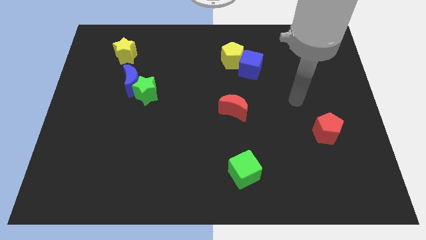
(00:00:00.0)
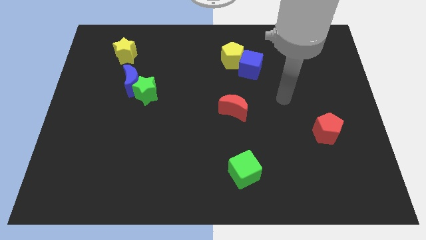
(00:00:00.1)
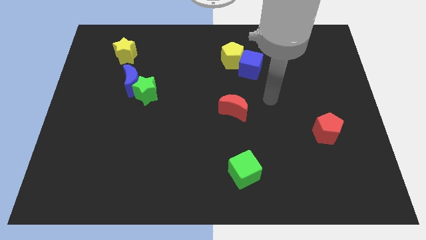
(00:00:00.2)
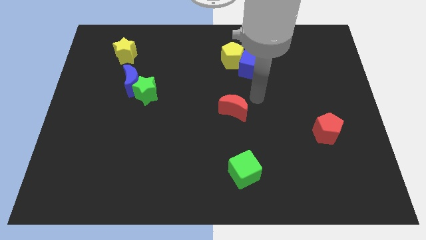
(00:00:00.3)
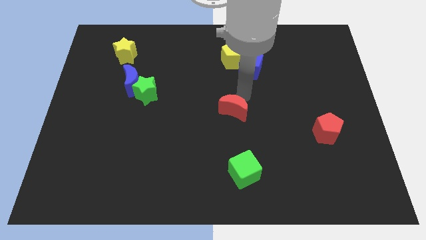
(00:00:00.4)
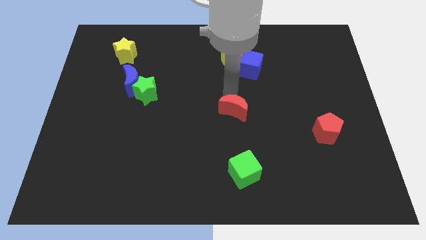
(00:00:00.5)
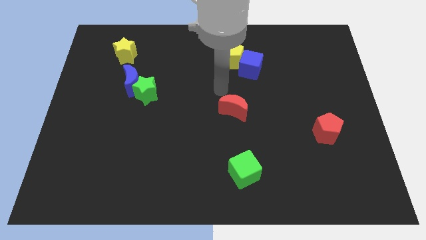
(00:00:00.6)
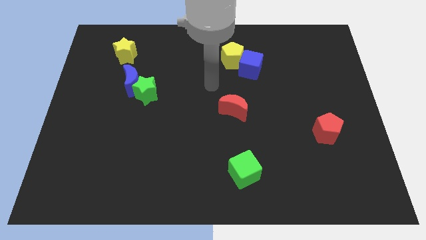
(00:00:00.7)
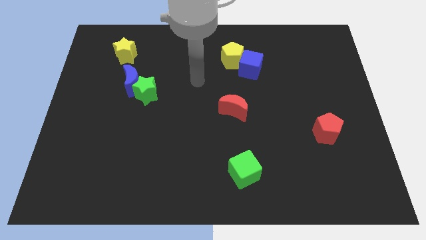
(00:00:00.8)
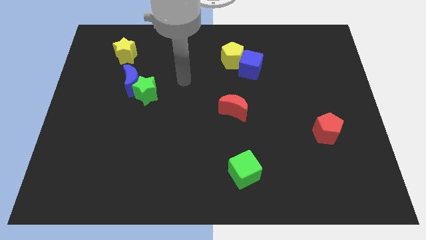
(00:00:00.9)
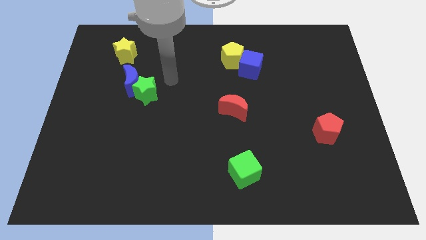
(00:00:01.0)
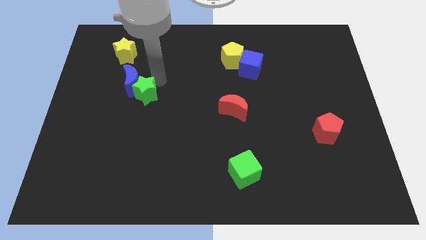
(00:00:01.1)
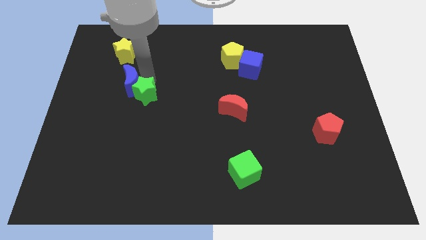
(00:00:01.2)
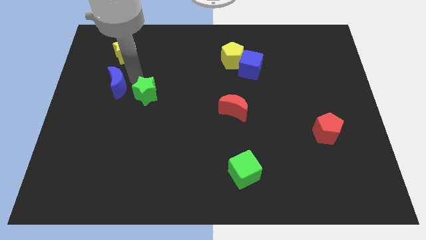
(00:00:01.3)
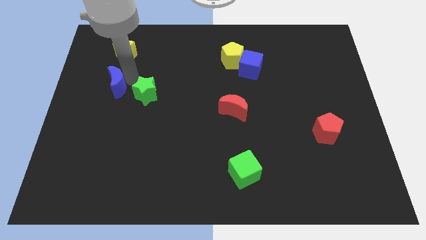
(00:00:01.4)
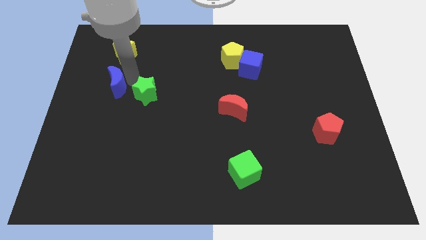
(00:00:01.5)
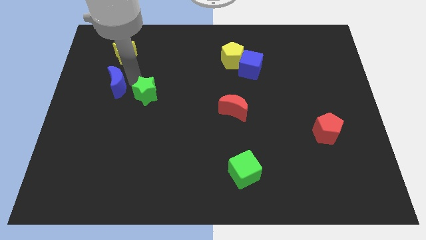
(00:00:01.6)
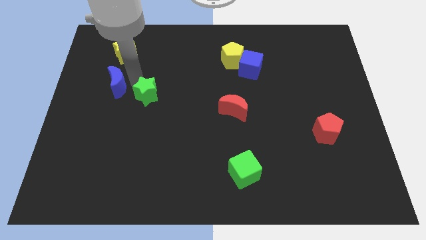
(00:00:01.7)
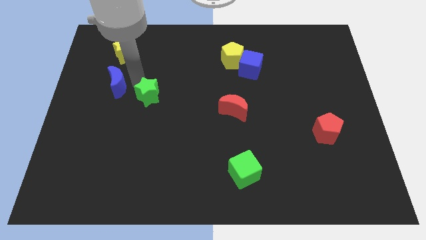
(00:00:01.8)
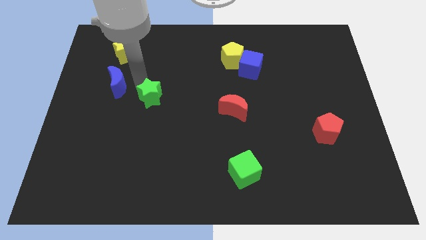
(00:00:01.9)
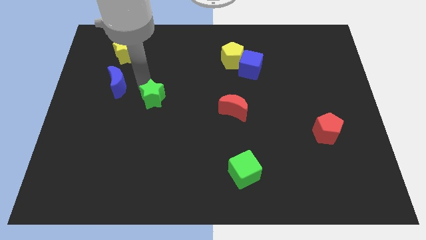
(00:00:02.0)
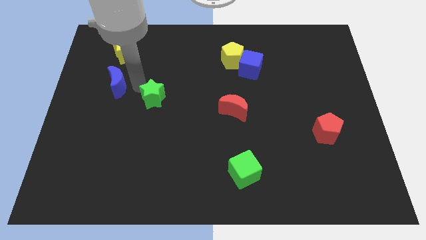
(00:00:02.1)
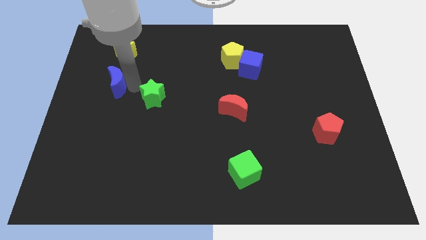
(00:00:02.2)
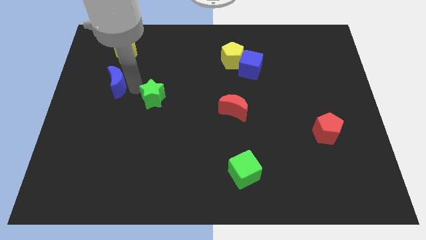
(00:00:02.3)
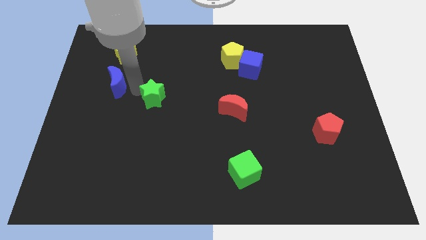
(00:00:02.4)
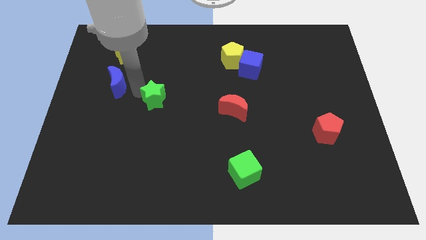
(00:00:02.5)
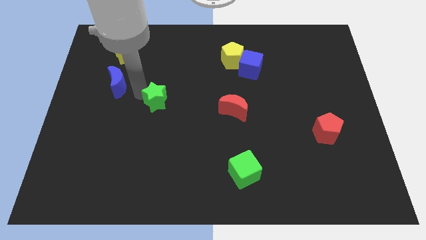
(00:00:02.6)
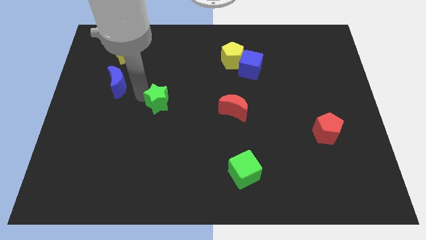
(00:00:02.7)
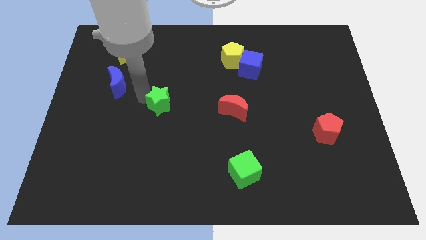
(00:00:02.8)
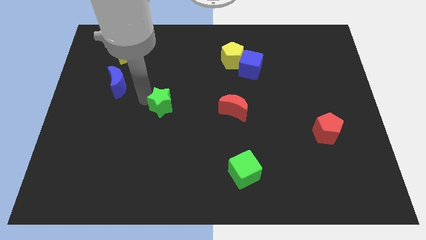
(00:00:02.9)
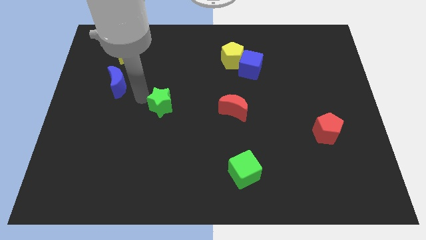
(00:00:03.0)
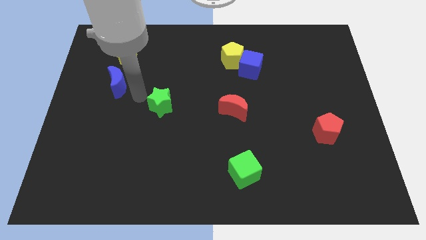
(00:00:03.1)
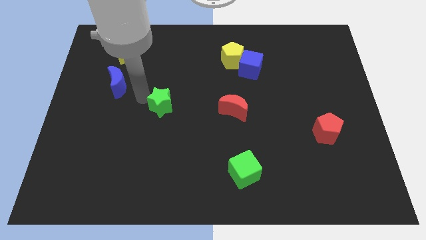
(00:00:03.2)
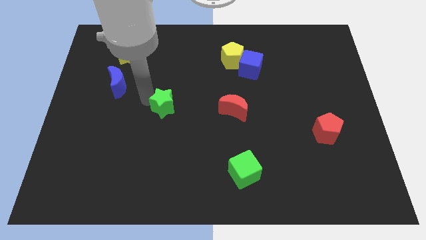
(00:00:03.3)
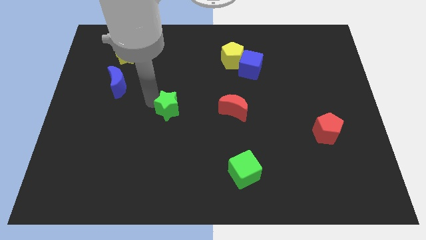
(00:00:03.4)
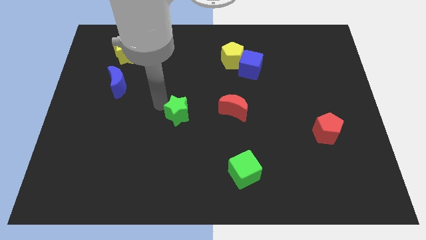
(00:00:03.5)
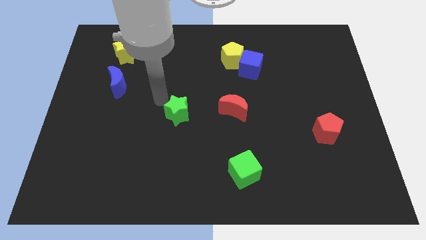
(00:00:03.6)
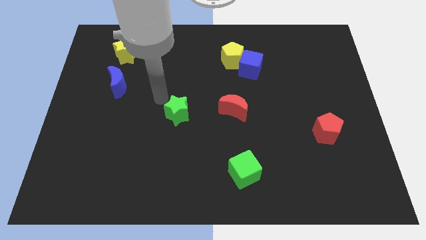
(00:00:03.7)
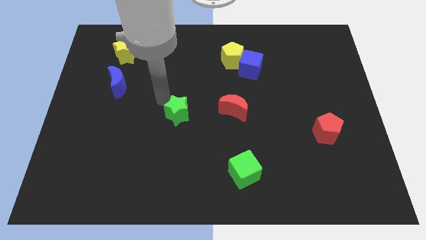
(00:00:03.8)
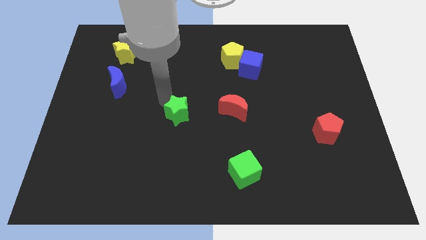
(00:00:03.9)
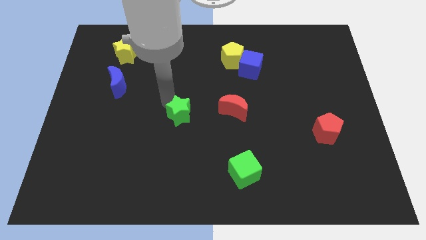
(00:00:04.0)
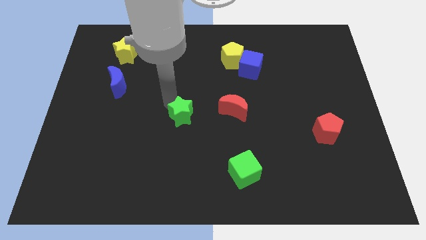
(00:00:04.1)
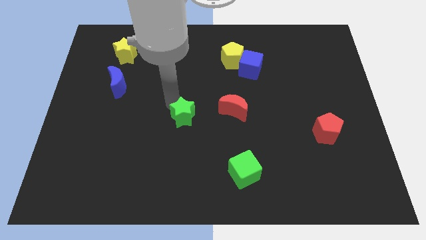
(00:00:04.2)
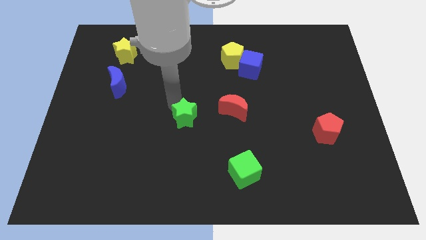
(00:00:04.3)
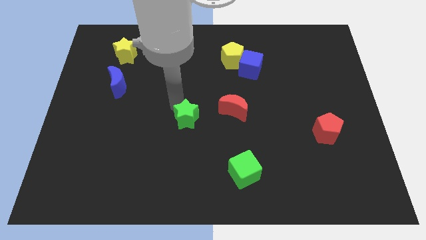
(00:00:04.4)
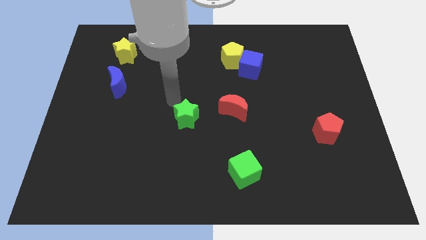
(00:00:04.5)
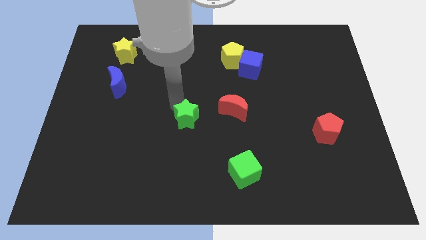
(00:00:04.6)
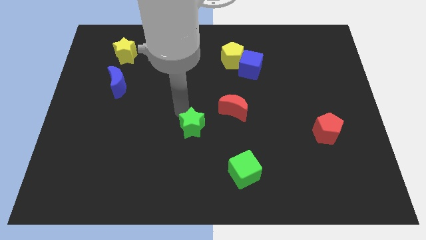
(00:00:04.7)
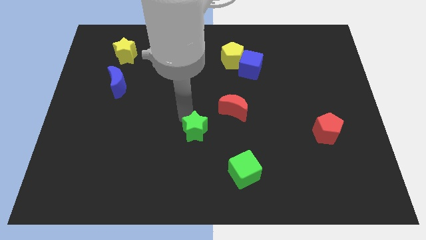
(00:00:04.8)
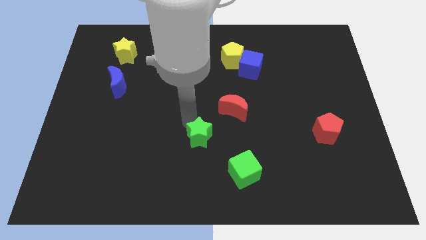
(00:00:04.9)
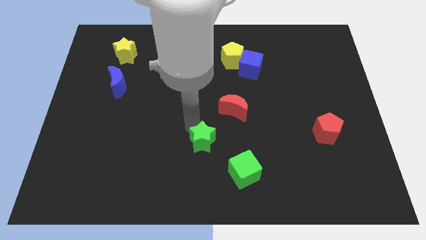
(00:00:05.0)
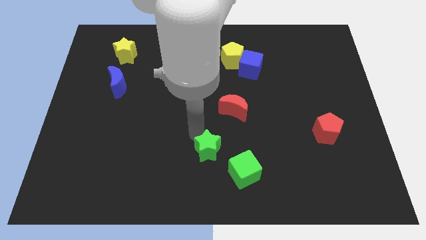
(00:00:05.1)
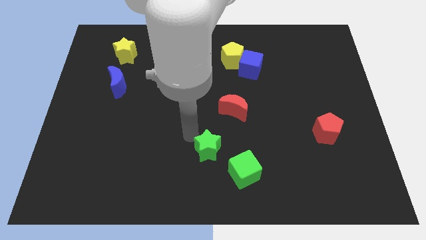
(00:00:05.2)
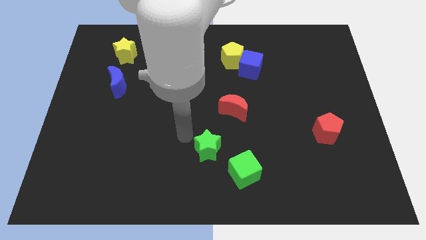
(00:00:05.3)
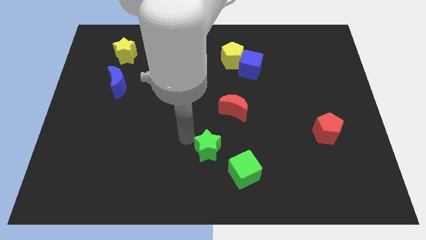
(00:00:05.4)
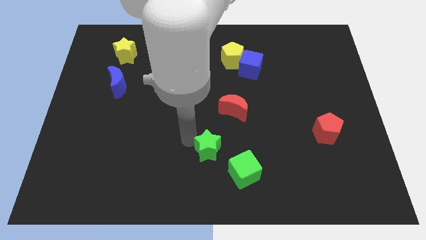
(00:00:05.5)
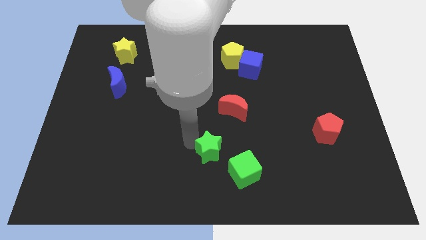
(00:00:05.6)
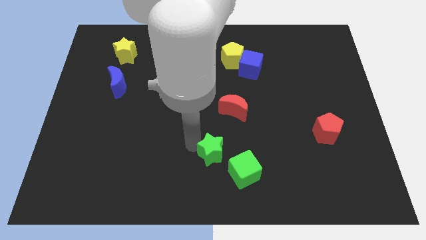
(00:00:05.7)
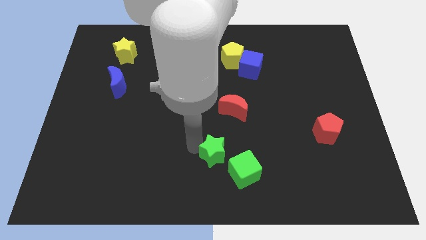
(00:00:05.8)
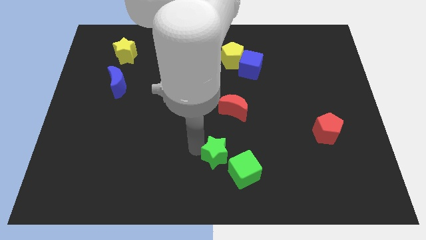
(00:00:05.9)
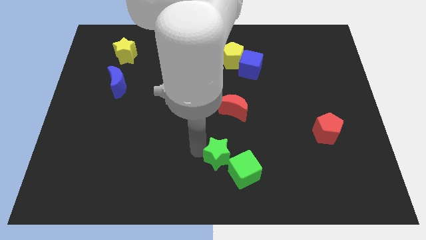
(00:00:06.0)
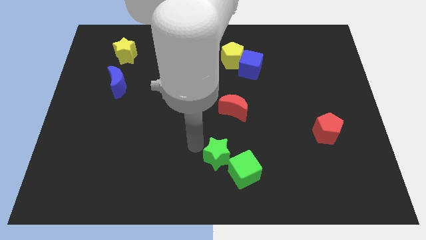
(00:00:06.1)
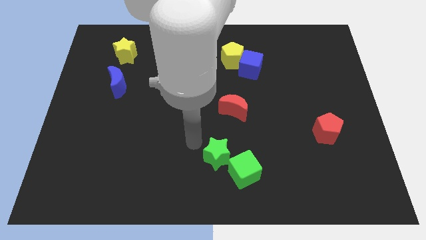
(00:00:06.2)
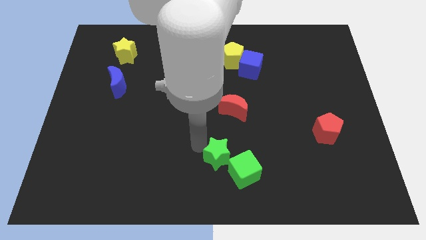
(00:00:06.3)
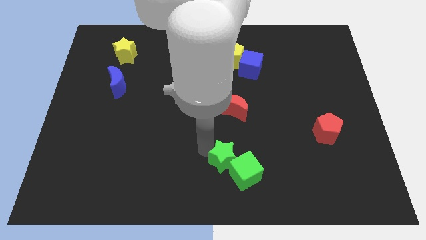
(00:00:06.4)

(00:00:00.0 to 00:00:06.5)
slide the green star close to the green cube

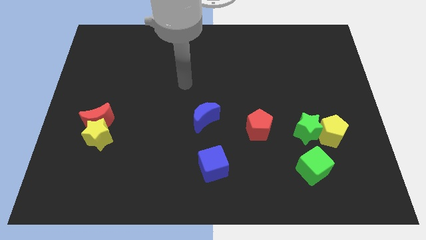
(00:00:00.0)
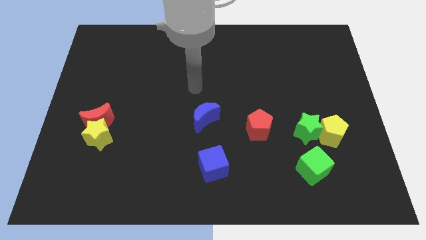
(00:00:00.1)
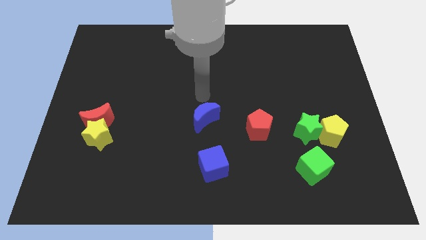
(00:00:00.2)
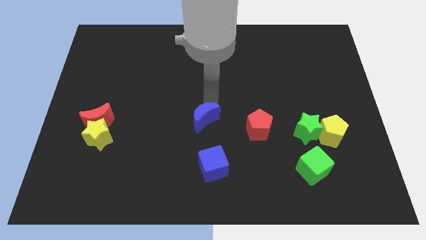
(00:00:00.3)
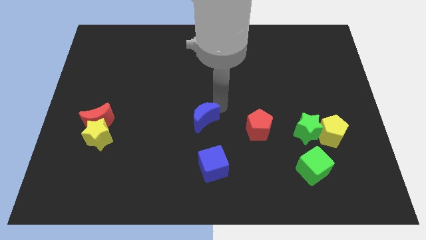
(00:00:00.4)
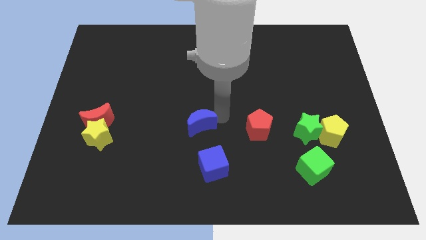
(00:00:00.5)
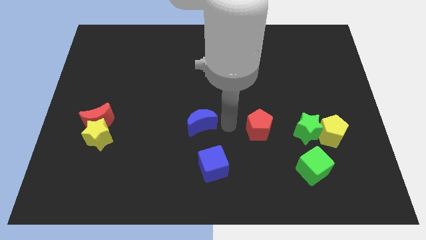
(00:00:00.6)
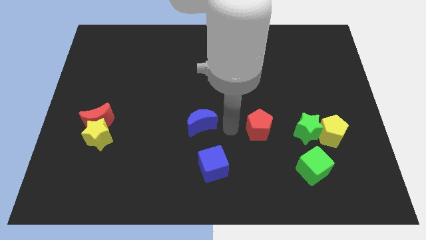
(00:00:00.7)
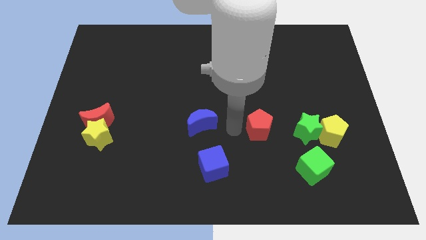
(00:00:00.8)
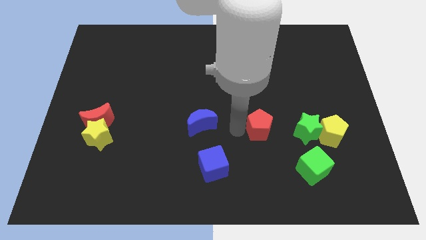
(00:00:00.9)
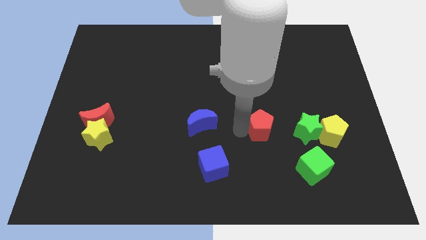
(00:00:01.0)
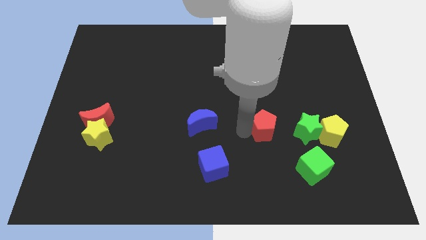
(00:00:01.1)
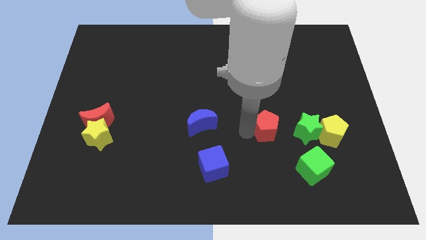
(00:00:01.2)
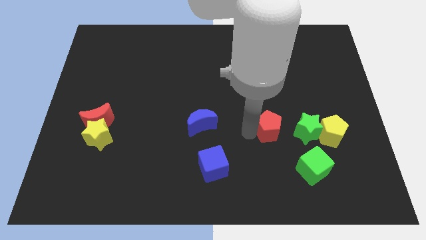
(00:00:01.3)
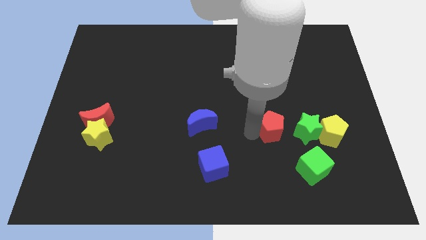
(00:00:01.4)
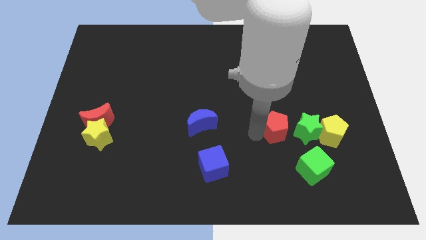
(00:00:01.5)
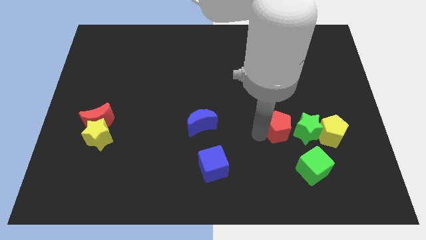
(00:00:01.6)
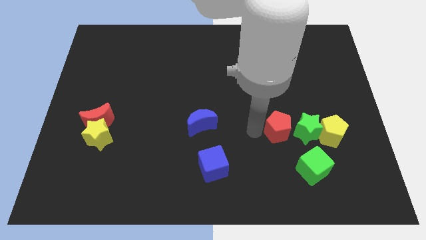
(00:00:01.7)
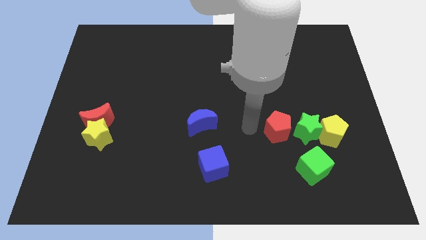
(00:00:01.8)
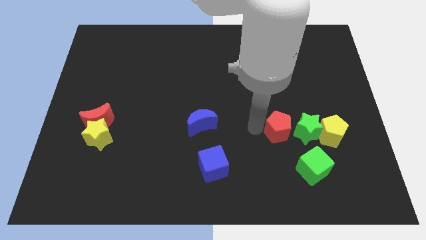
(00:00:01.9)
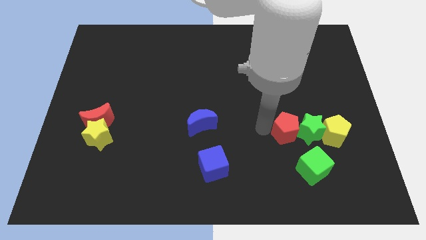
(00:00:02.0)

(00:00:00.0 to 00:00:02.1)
put the red pentagon towards the green star
